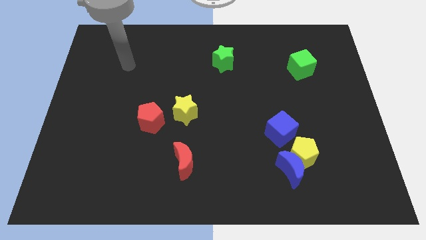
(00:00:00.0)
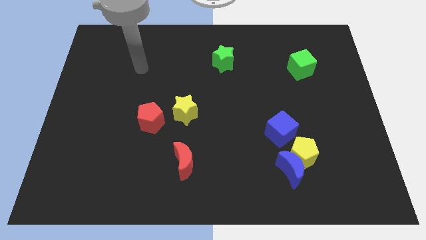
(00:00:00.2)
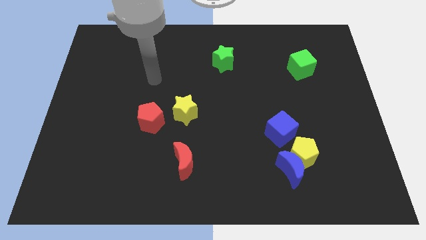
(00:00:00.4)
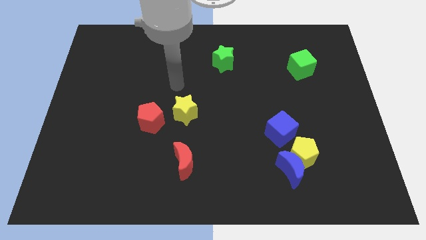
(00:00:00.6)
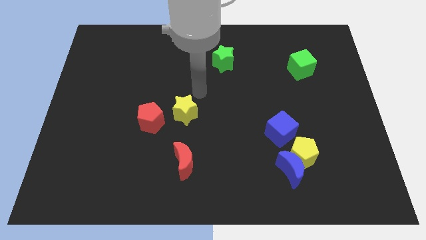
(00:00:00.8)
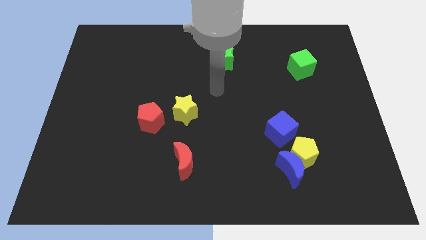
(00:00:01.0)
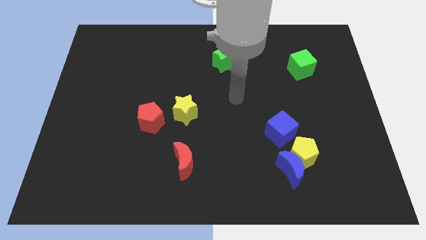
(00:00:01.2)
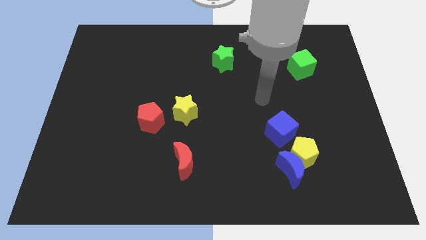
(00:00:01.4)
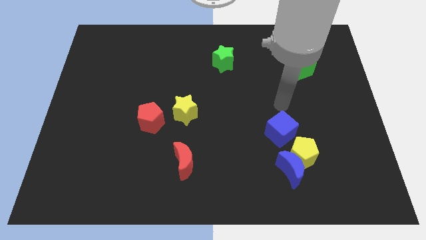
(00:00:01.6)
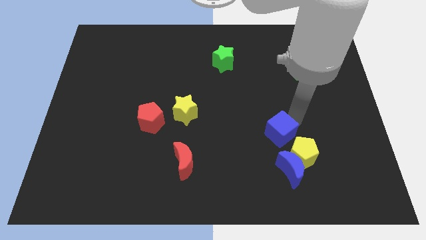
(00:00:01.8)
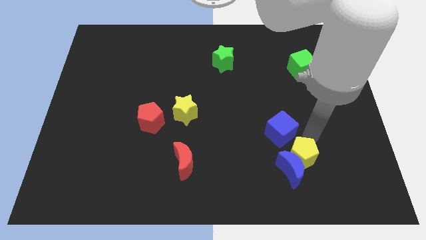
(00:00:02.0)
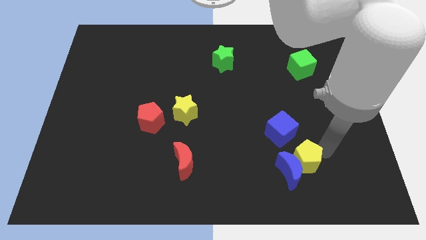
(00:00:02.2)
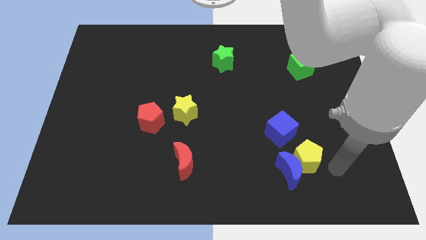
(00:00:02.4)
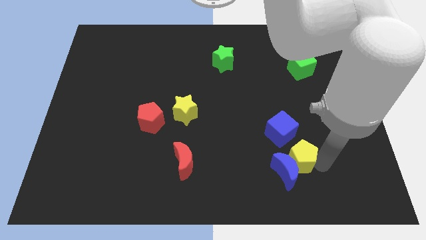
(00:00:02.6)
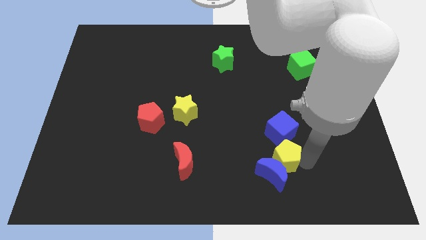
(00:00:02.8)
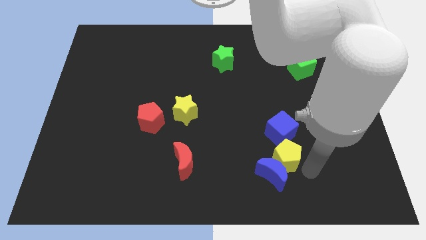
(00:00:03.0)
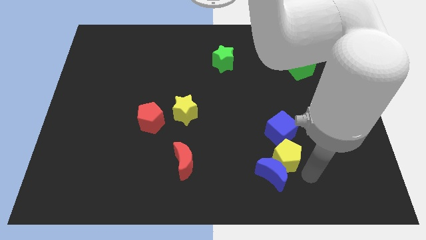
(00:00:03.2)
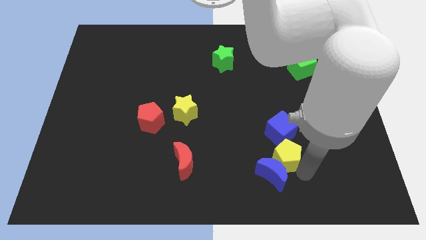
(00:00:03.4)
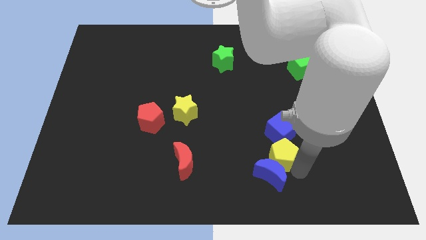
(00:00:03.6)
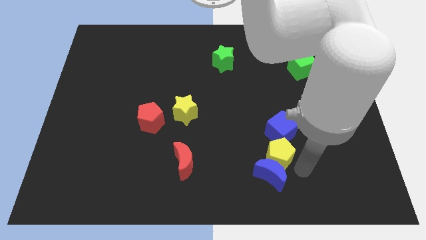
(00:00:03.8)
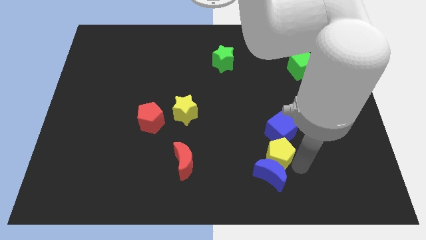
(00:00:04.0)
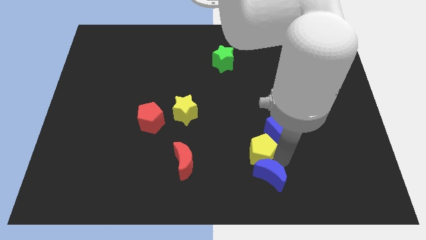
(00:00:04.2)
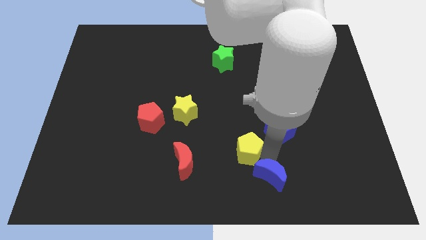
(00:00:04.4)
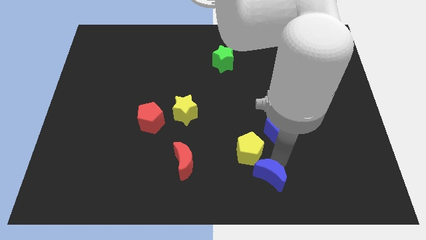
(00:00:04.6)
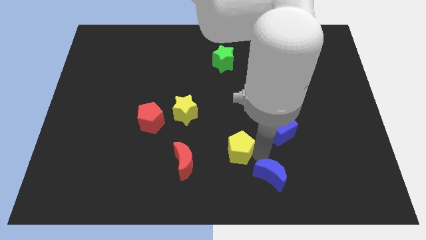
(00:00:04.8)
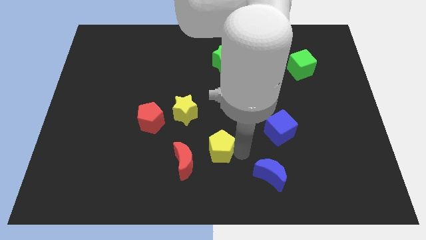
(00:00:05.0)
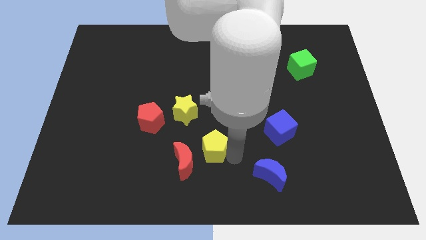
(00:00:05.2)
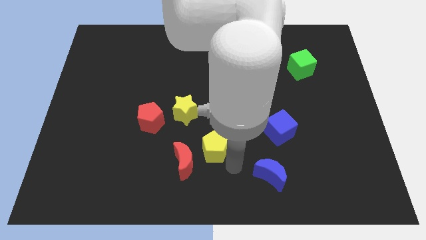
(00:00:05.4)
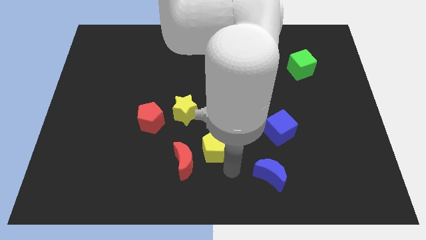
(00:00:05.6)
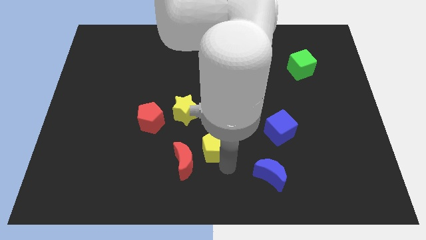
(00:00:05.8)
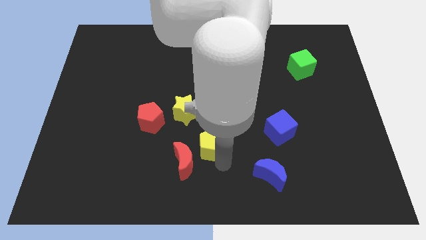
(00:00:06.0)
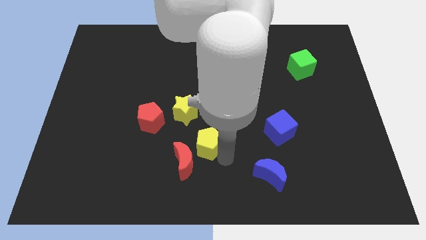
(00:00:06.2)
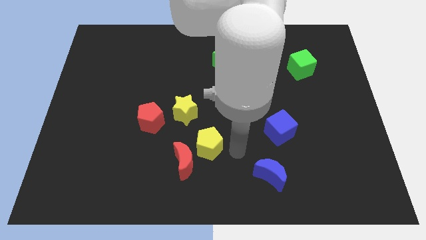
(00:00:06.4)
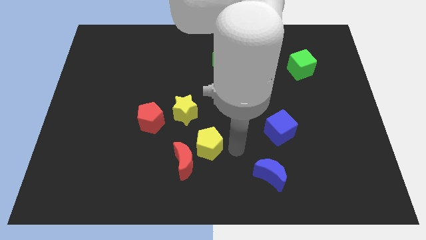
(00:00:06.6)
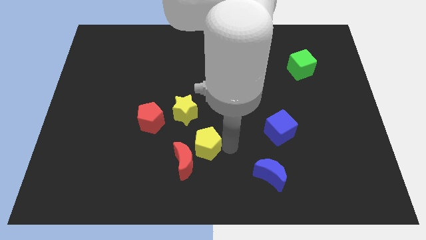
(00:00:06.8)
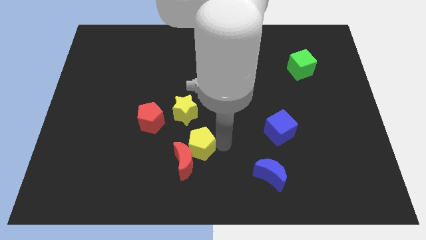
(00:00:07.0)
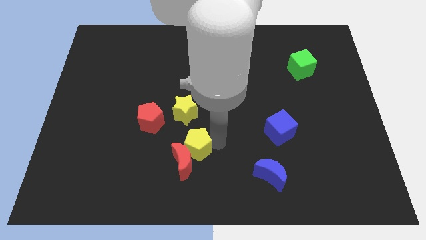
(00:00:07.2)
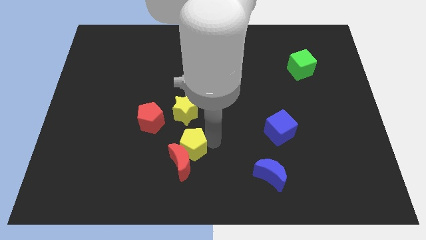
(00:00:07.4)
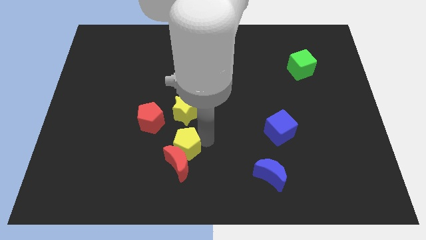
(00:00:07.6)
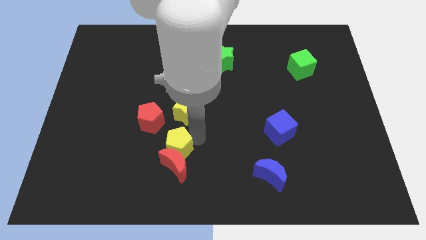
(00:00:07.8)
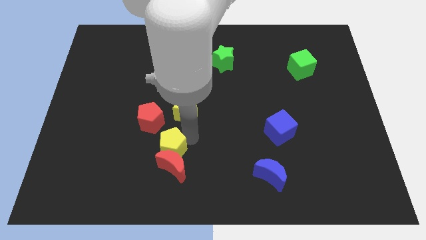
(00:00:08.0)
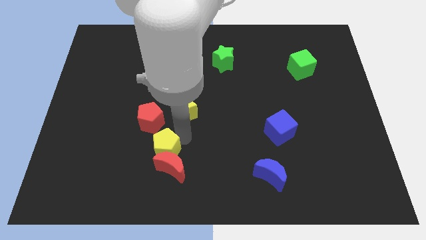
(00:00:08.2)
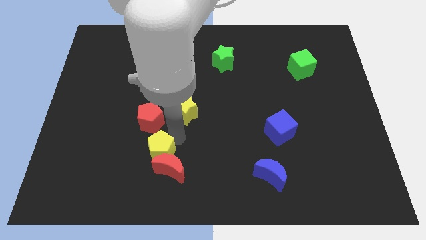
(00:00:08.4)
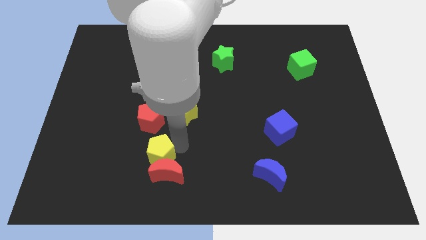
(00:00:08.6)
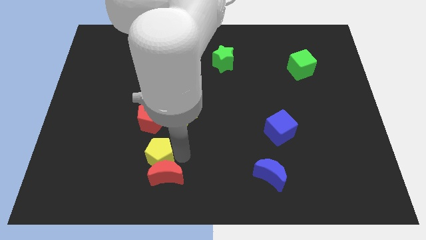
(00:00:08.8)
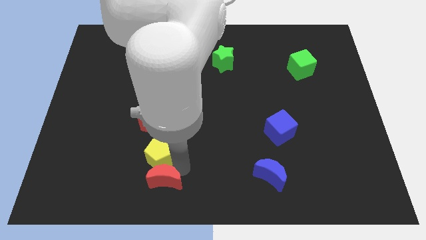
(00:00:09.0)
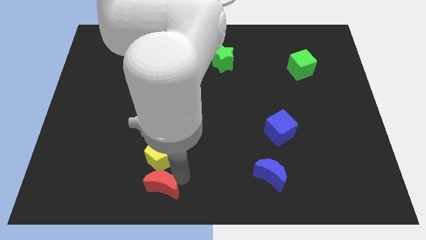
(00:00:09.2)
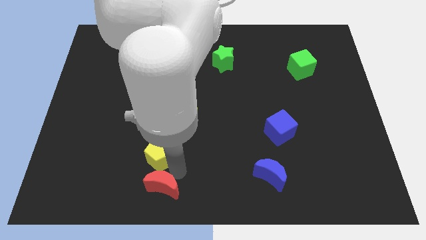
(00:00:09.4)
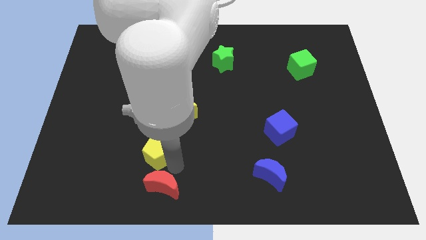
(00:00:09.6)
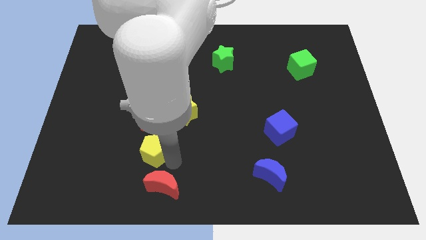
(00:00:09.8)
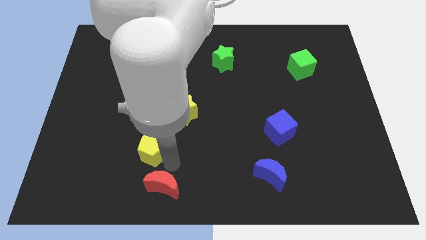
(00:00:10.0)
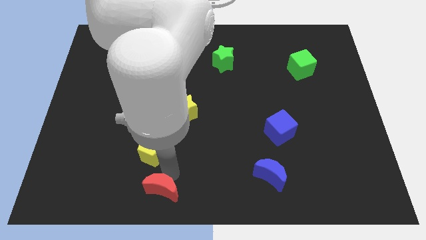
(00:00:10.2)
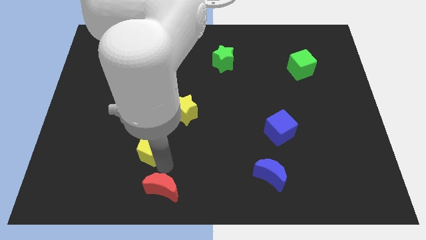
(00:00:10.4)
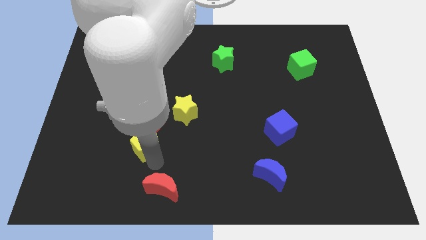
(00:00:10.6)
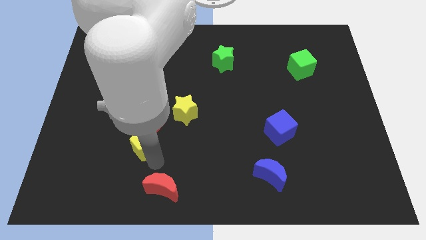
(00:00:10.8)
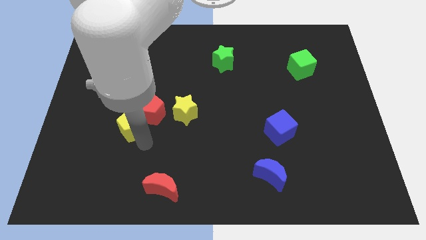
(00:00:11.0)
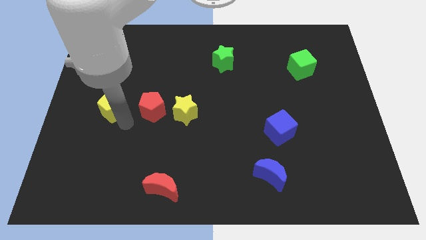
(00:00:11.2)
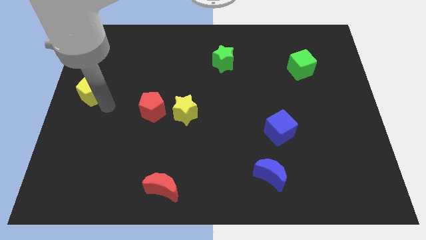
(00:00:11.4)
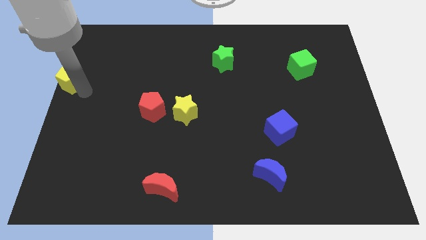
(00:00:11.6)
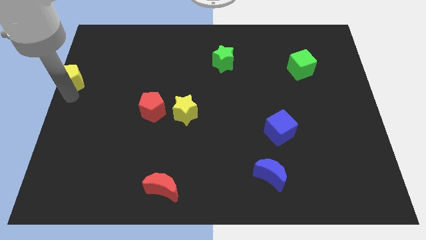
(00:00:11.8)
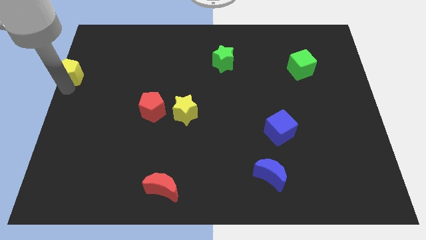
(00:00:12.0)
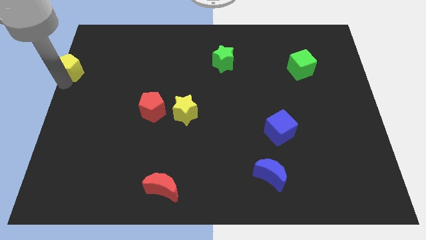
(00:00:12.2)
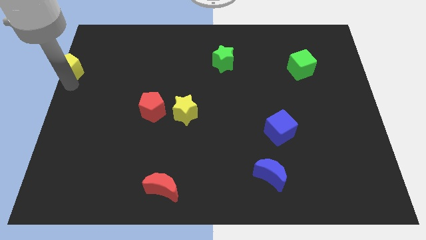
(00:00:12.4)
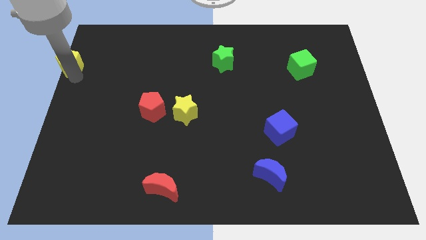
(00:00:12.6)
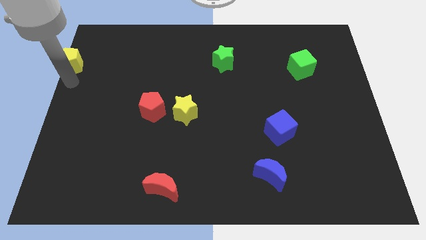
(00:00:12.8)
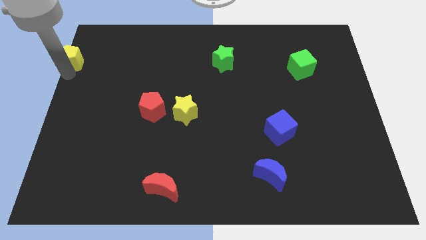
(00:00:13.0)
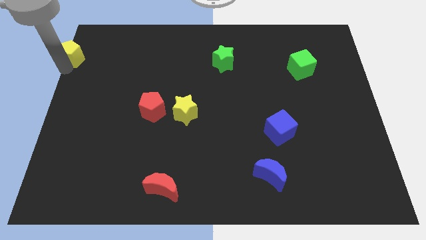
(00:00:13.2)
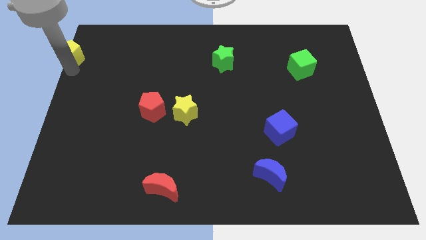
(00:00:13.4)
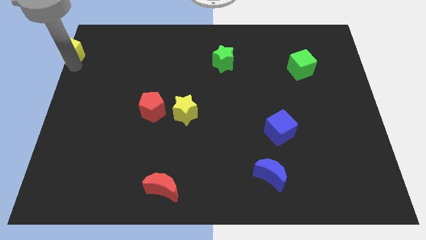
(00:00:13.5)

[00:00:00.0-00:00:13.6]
put the yellow pentagon to the top left
